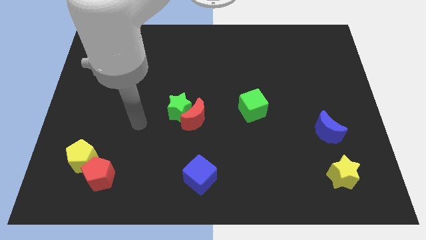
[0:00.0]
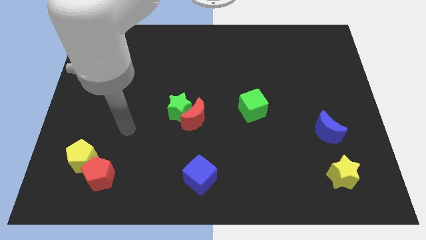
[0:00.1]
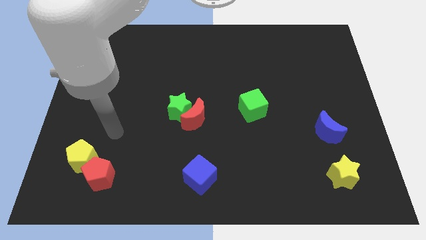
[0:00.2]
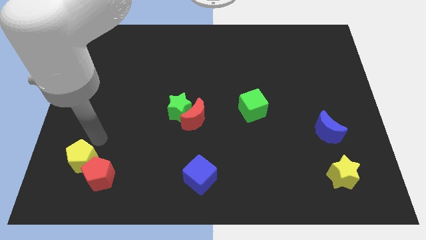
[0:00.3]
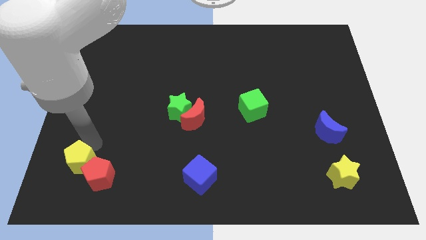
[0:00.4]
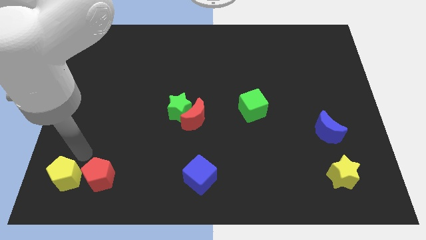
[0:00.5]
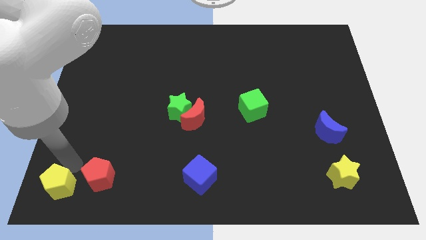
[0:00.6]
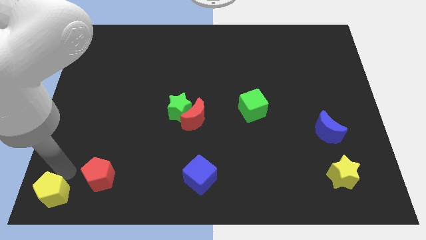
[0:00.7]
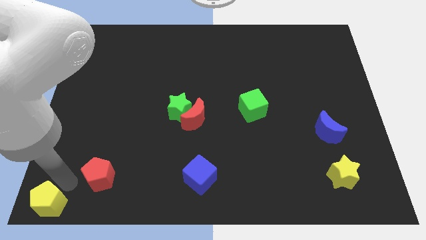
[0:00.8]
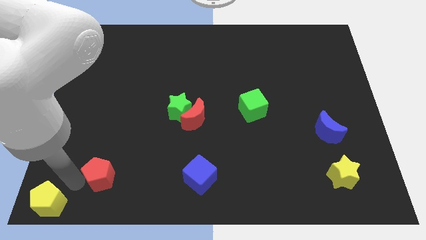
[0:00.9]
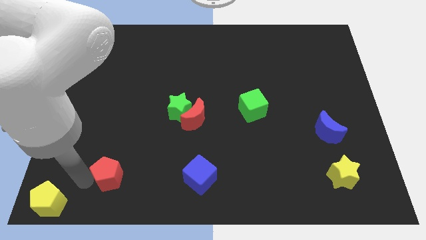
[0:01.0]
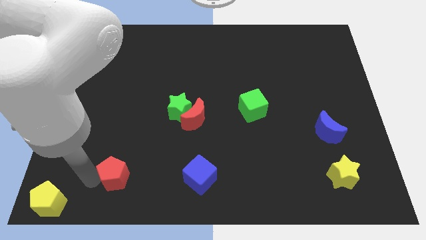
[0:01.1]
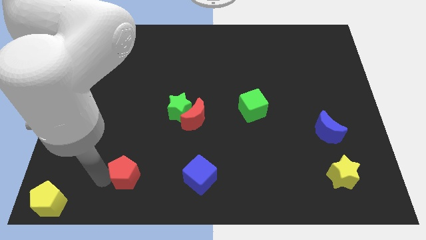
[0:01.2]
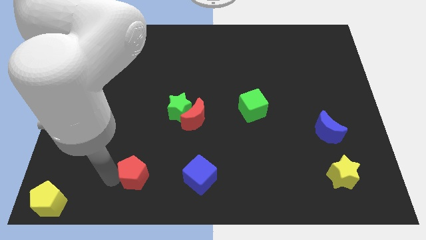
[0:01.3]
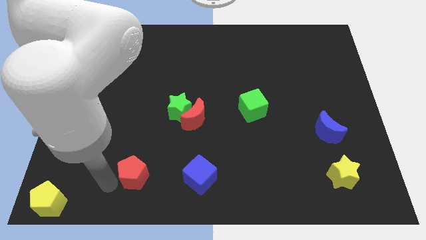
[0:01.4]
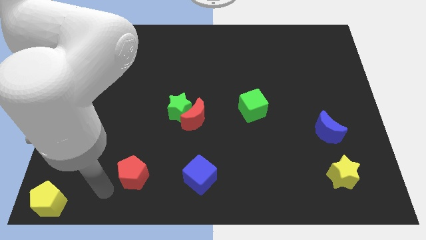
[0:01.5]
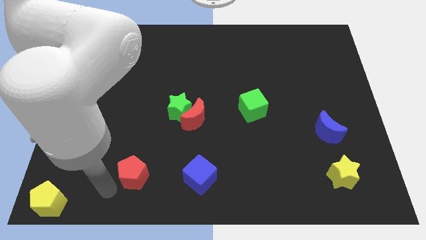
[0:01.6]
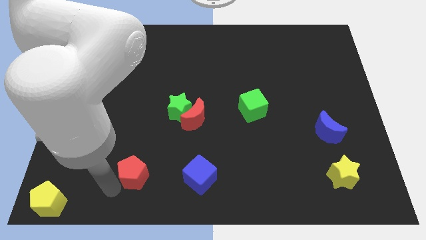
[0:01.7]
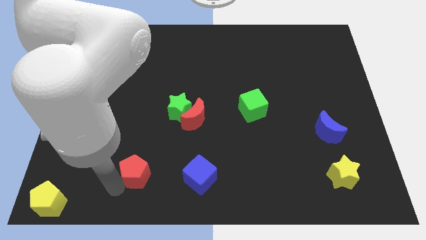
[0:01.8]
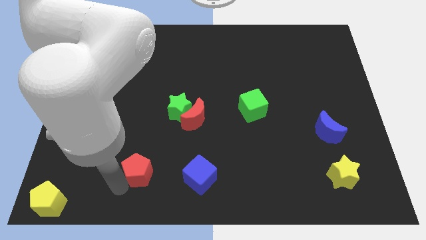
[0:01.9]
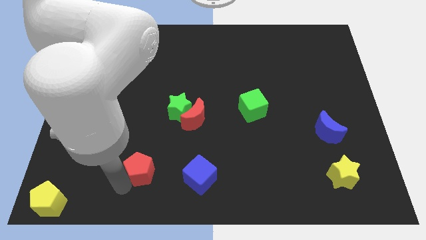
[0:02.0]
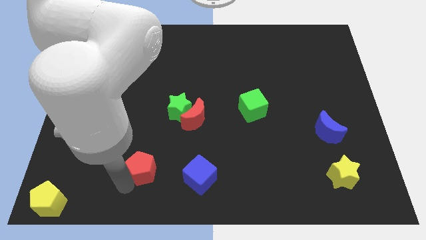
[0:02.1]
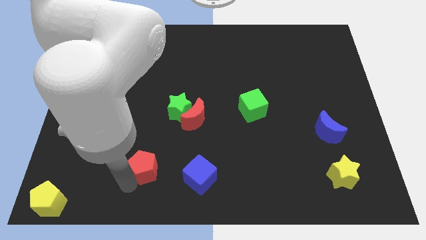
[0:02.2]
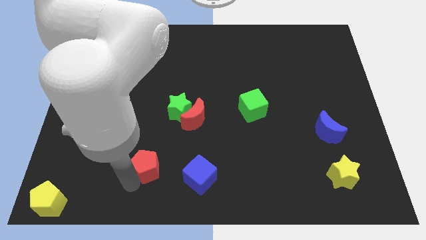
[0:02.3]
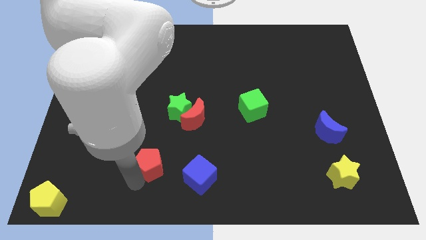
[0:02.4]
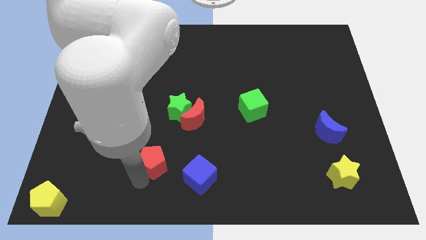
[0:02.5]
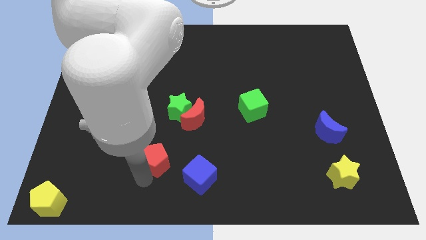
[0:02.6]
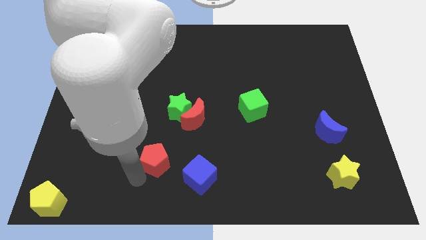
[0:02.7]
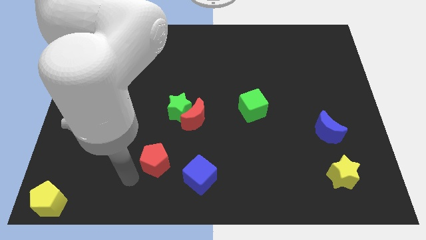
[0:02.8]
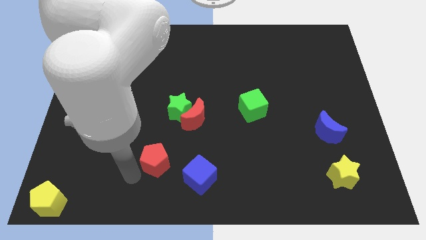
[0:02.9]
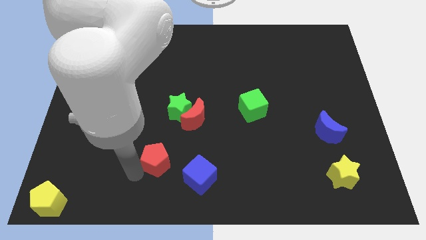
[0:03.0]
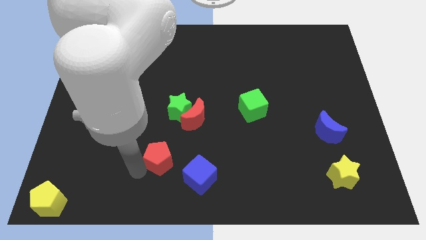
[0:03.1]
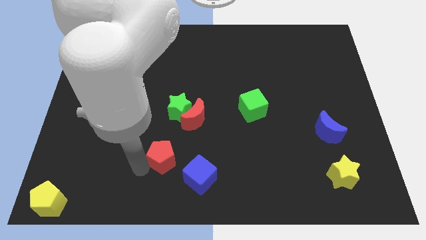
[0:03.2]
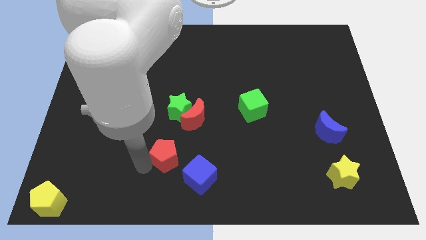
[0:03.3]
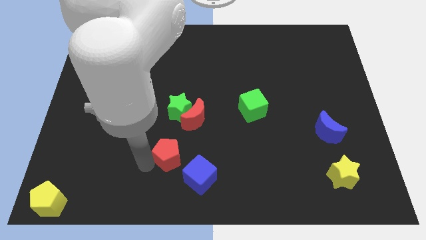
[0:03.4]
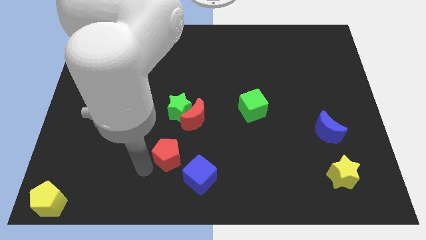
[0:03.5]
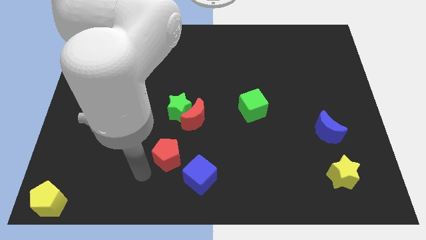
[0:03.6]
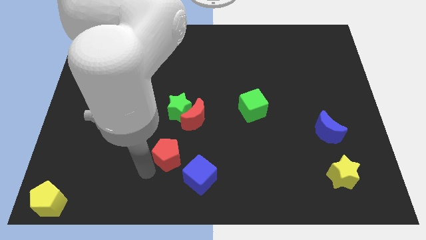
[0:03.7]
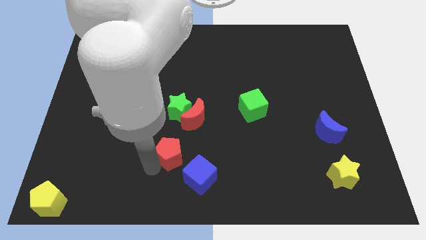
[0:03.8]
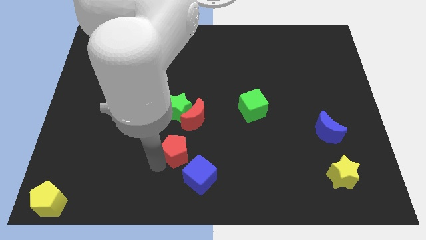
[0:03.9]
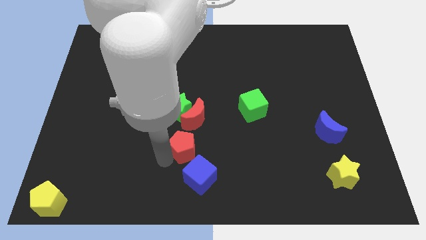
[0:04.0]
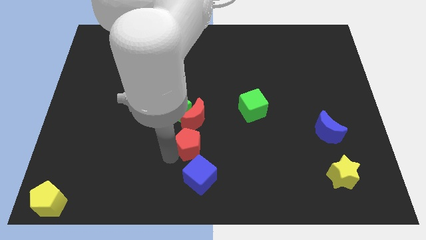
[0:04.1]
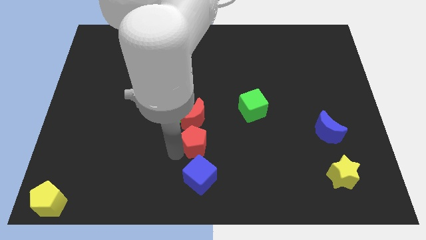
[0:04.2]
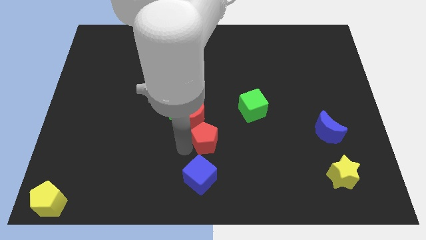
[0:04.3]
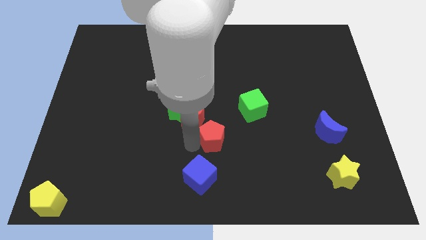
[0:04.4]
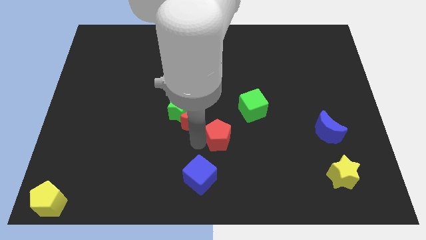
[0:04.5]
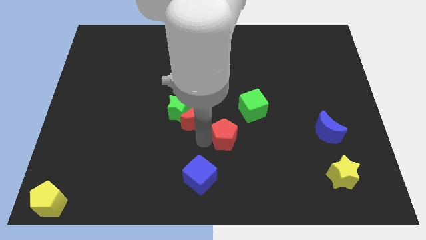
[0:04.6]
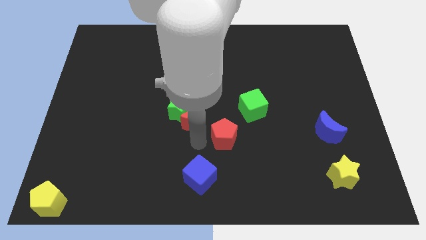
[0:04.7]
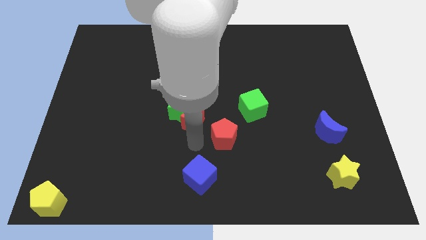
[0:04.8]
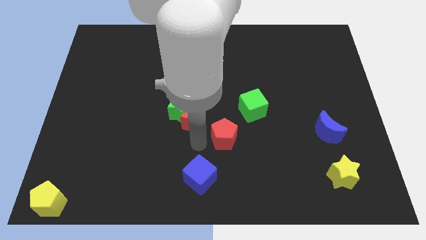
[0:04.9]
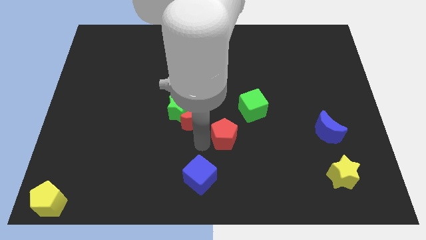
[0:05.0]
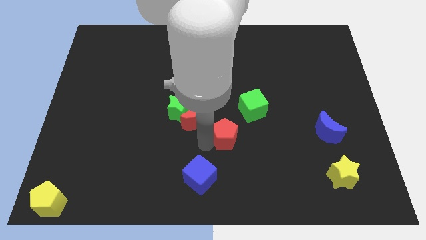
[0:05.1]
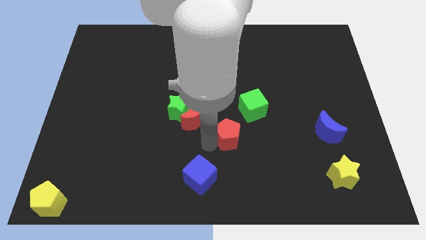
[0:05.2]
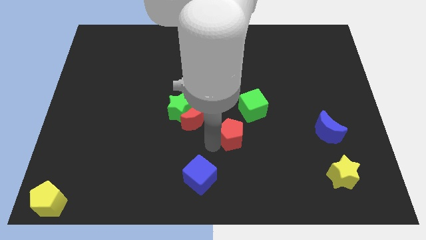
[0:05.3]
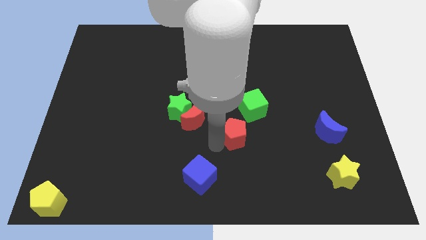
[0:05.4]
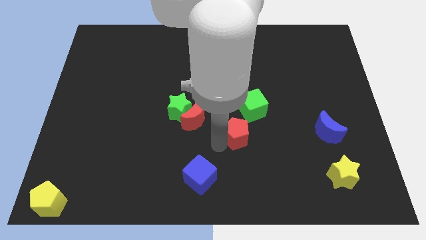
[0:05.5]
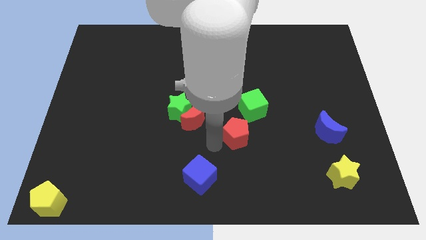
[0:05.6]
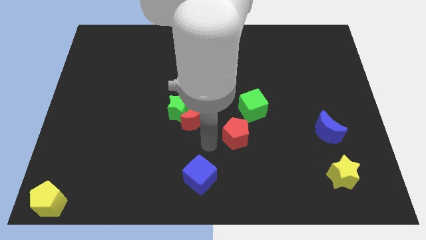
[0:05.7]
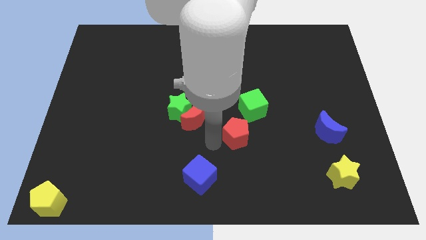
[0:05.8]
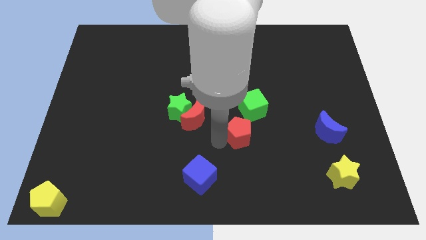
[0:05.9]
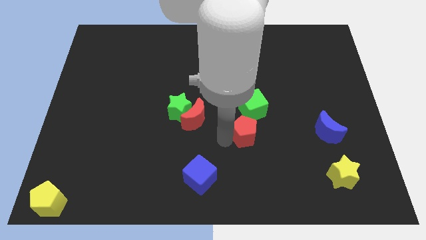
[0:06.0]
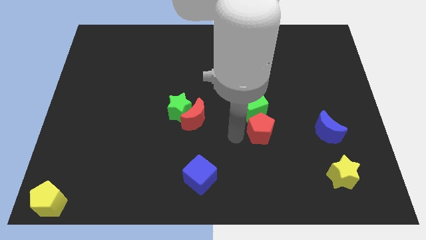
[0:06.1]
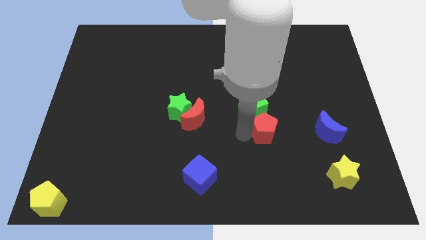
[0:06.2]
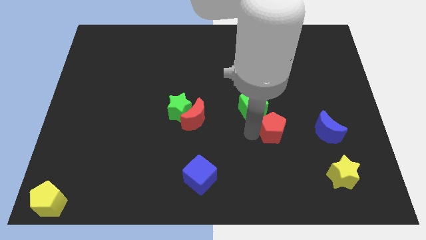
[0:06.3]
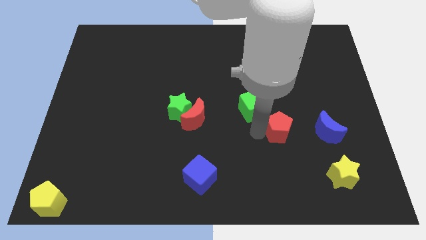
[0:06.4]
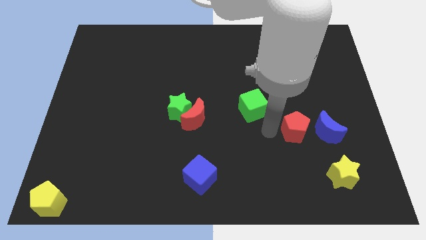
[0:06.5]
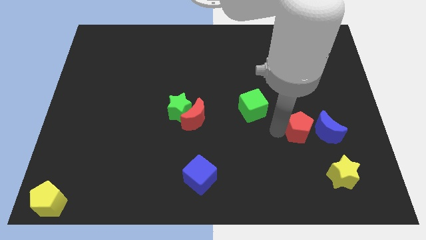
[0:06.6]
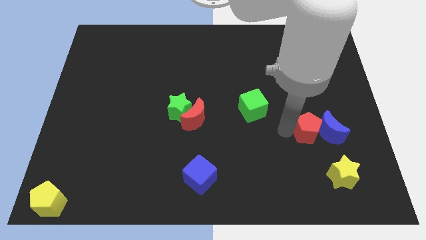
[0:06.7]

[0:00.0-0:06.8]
push the red pentagon to the blue moon

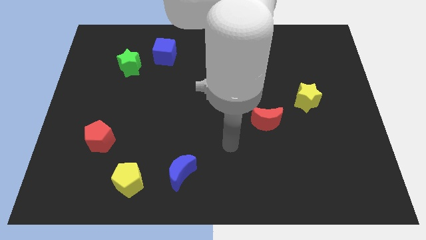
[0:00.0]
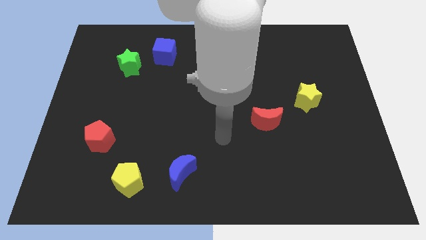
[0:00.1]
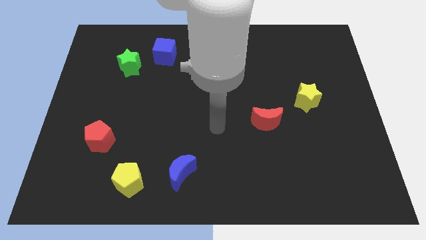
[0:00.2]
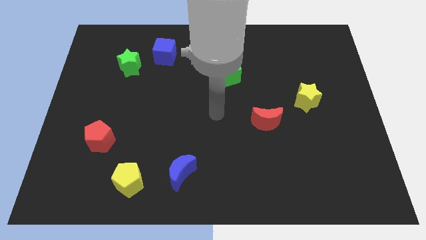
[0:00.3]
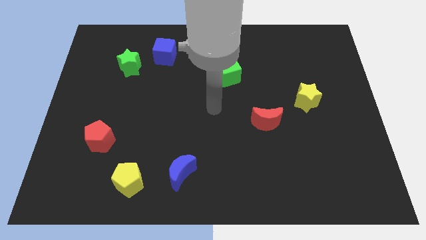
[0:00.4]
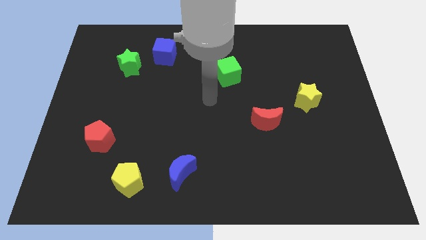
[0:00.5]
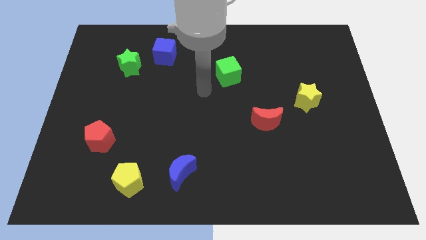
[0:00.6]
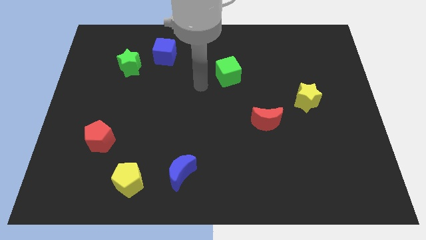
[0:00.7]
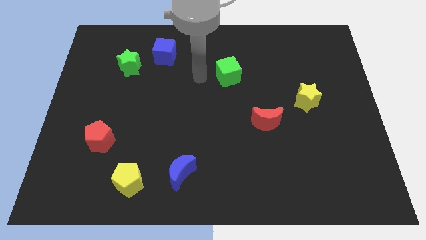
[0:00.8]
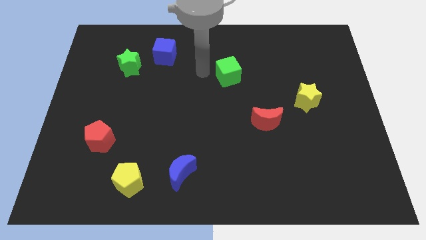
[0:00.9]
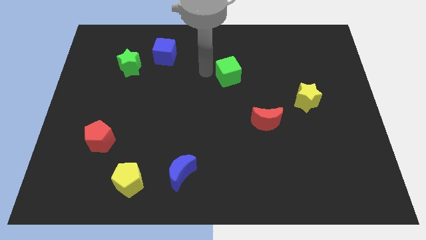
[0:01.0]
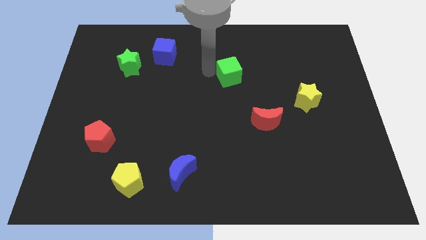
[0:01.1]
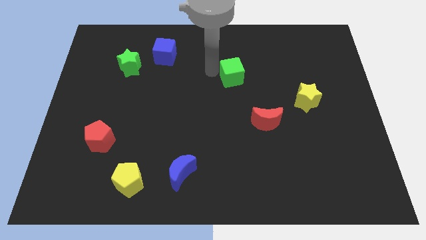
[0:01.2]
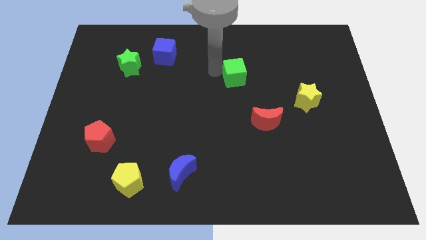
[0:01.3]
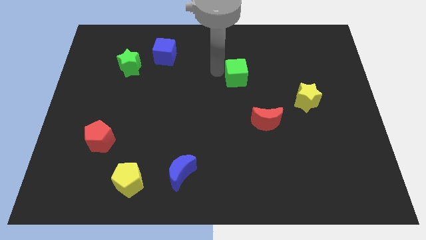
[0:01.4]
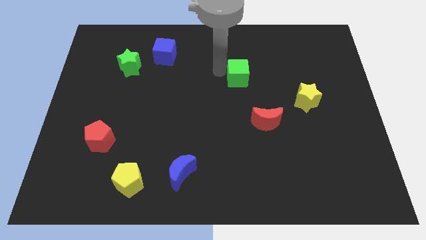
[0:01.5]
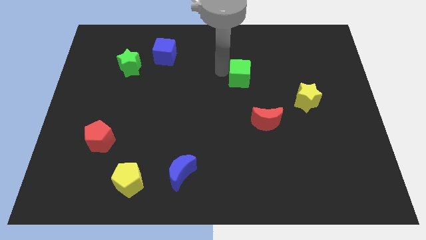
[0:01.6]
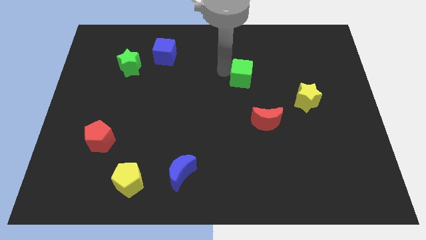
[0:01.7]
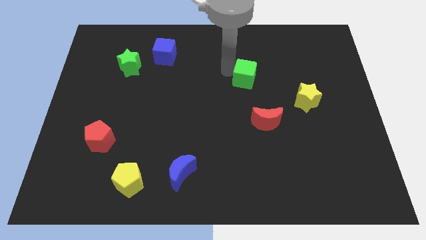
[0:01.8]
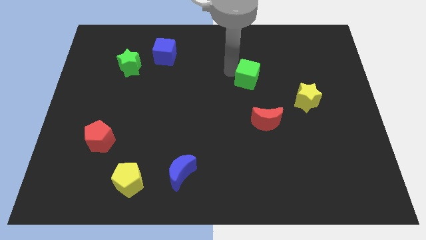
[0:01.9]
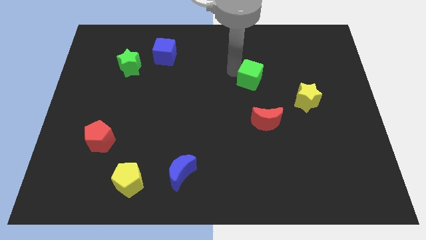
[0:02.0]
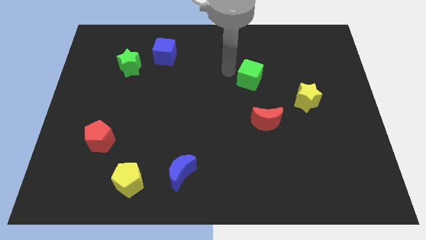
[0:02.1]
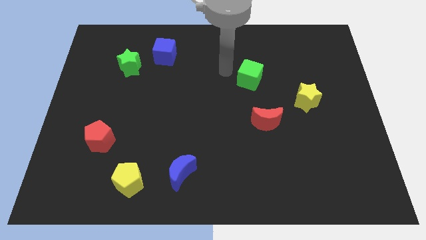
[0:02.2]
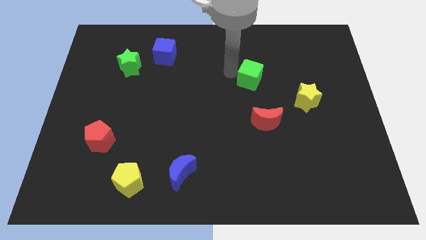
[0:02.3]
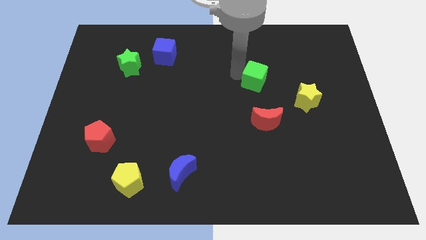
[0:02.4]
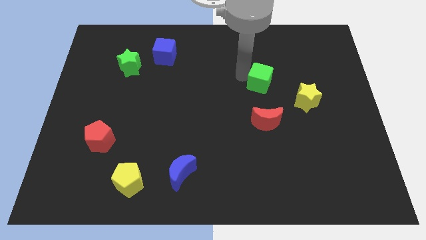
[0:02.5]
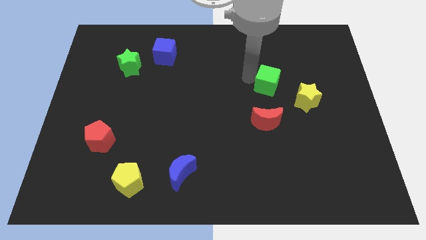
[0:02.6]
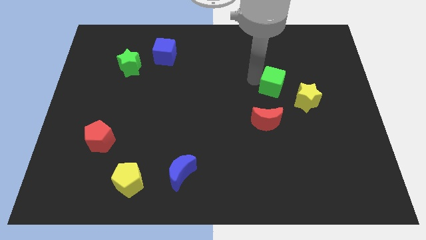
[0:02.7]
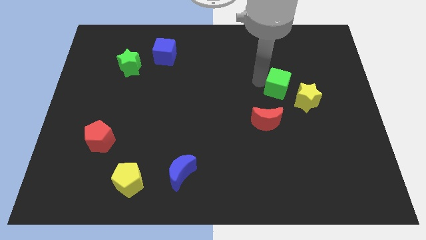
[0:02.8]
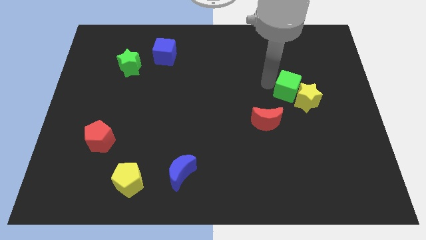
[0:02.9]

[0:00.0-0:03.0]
put the green cube to the yellow star
